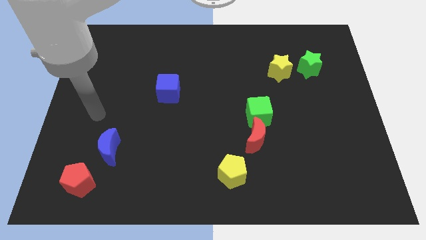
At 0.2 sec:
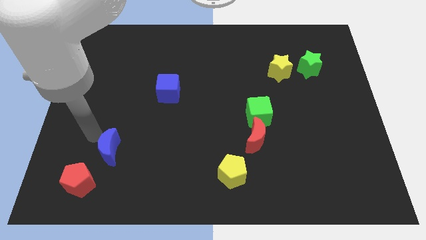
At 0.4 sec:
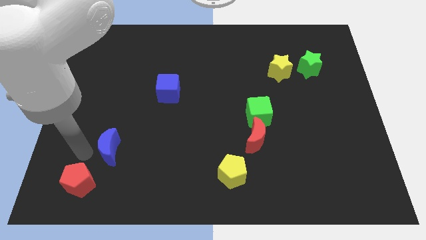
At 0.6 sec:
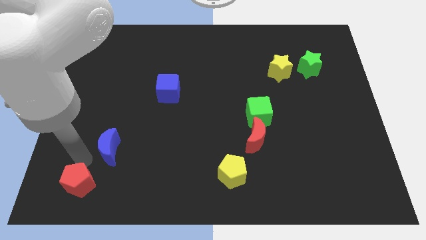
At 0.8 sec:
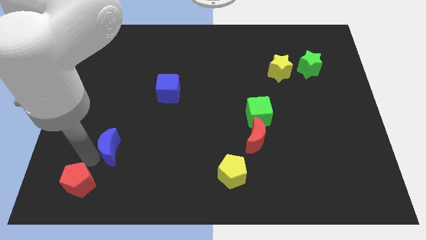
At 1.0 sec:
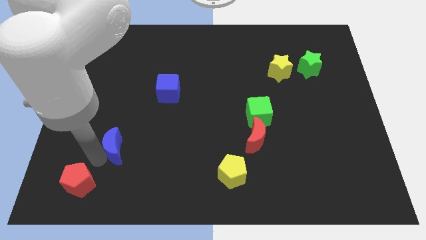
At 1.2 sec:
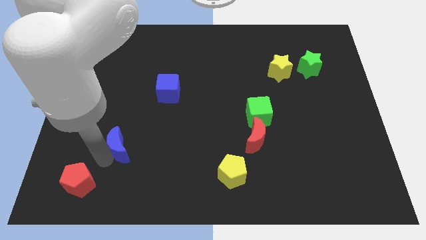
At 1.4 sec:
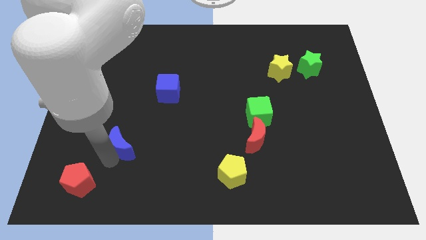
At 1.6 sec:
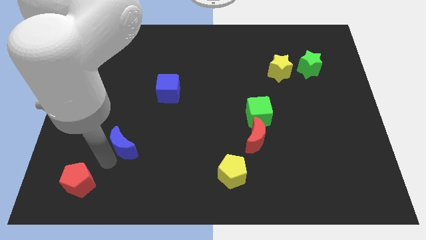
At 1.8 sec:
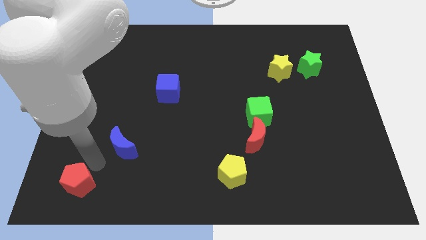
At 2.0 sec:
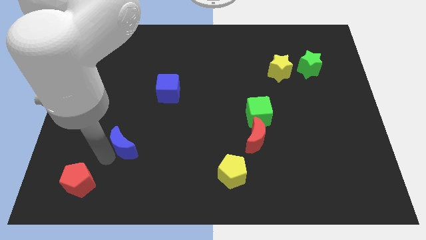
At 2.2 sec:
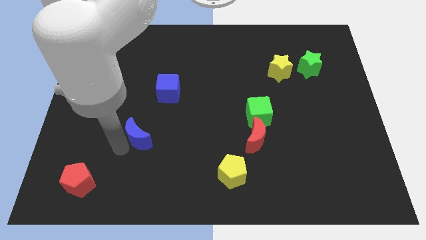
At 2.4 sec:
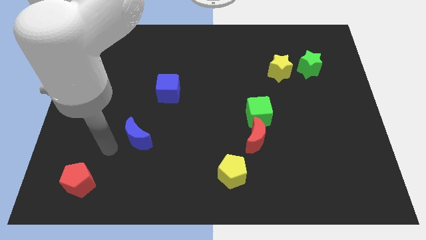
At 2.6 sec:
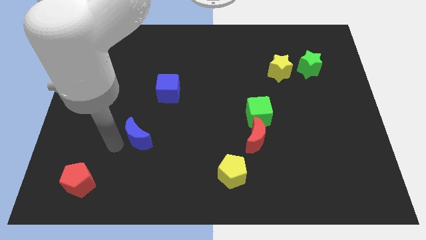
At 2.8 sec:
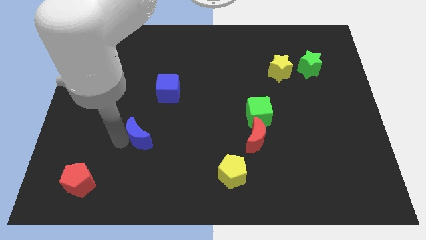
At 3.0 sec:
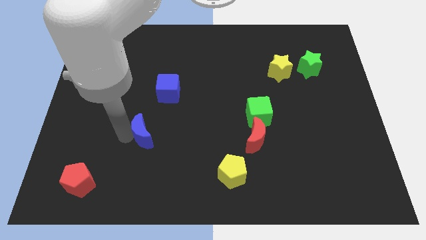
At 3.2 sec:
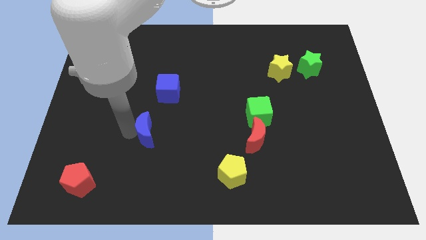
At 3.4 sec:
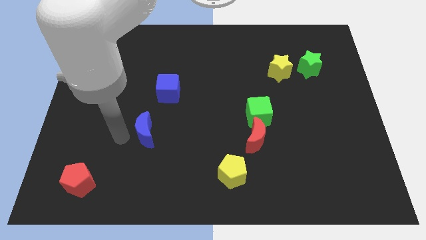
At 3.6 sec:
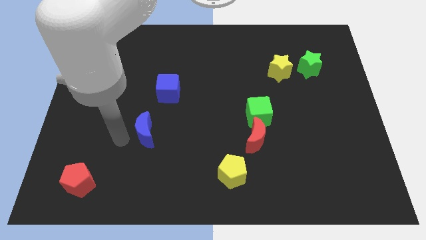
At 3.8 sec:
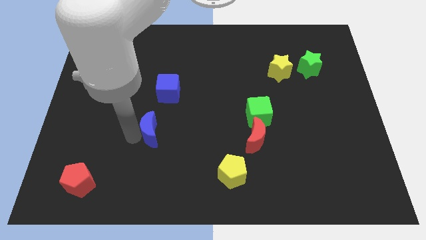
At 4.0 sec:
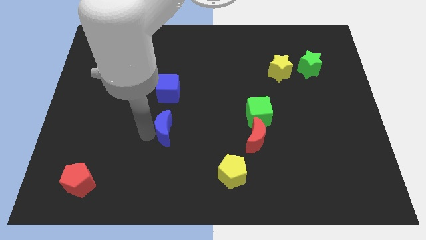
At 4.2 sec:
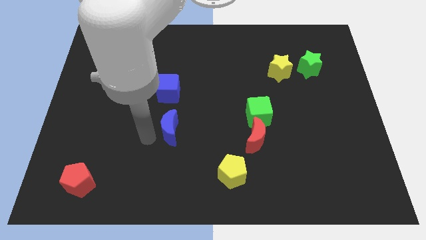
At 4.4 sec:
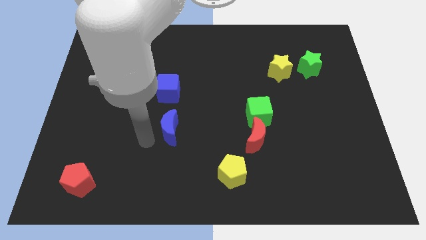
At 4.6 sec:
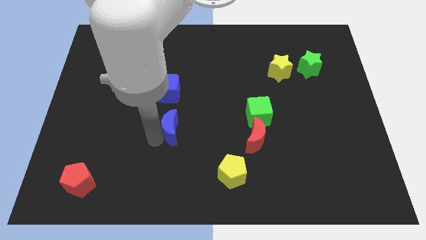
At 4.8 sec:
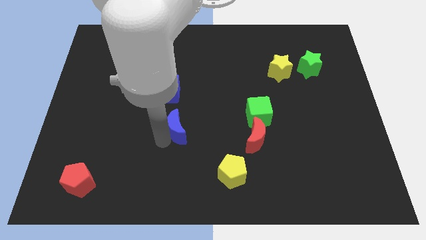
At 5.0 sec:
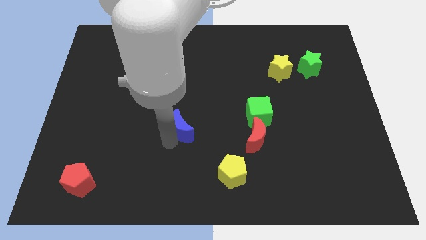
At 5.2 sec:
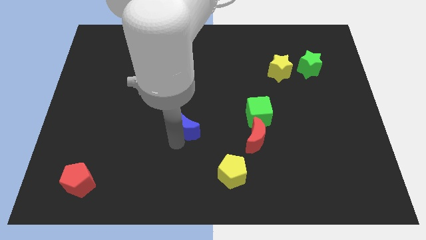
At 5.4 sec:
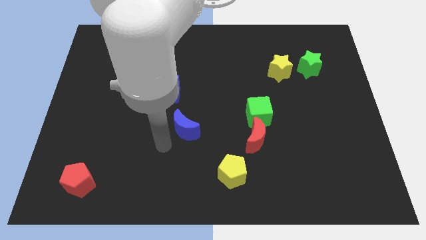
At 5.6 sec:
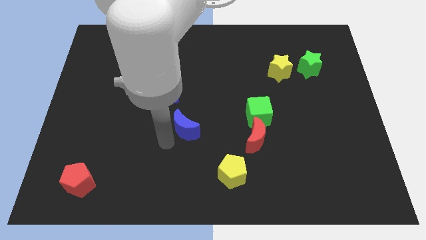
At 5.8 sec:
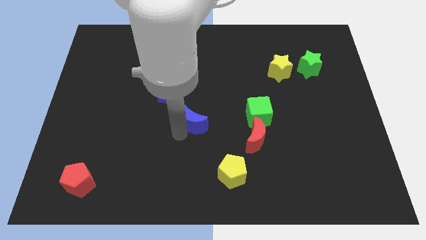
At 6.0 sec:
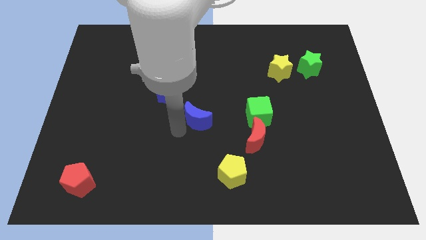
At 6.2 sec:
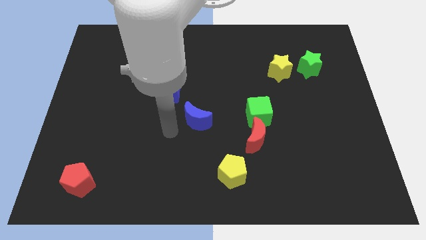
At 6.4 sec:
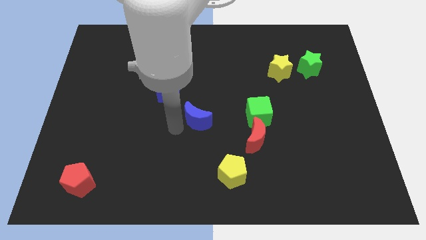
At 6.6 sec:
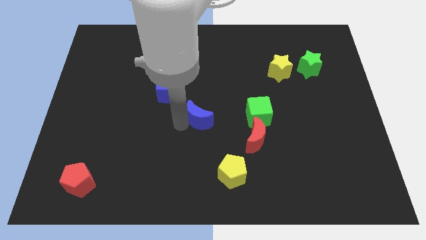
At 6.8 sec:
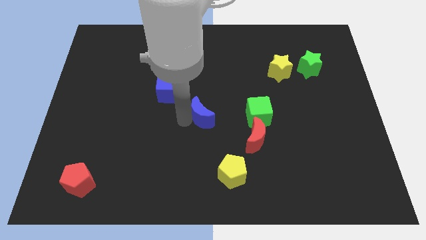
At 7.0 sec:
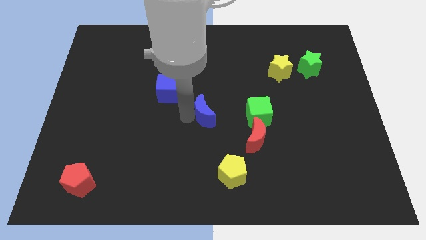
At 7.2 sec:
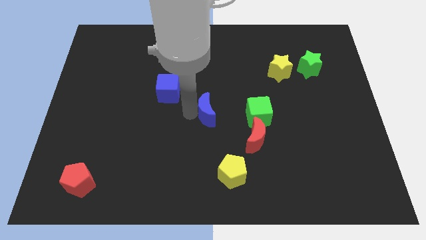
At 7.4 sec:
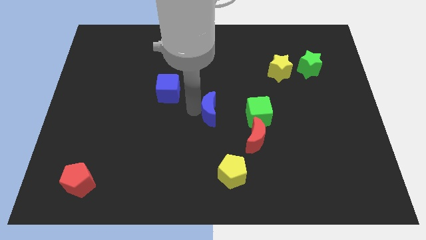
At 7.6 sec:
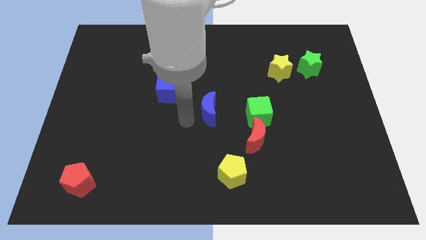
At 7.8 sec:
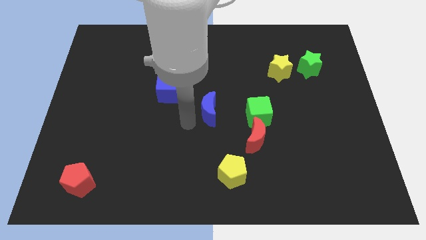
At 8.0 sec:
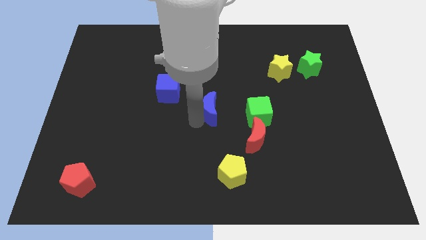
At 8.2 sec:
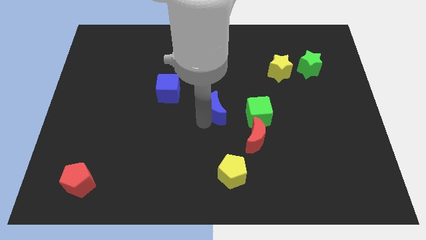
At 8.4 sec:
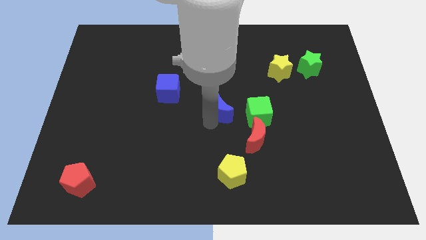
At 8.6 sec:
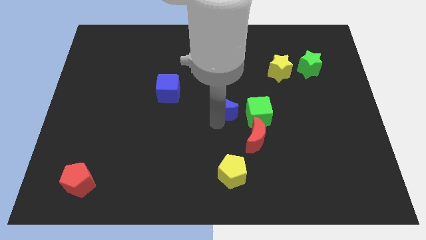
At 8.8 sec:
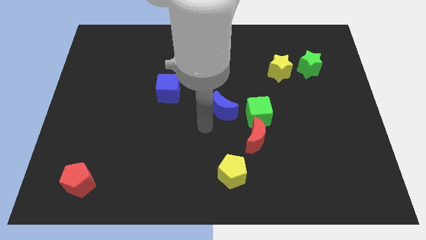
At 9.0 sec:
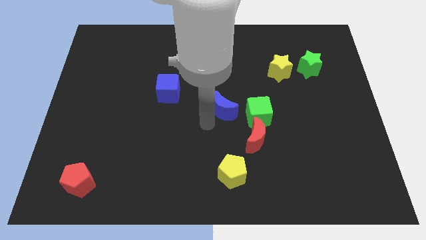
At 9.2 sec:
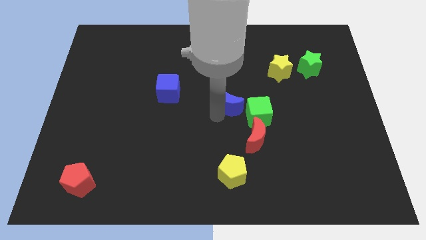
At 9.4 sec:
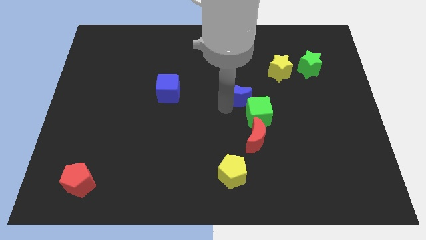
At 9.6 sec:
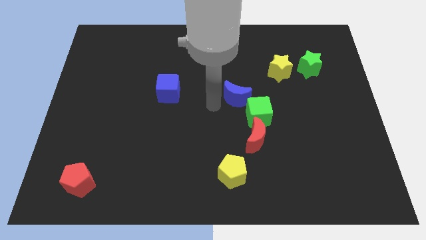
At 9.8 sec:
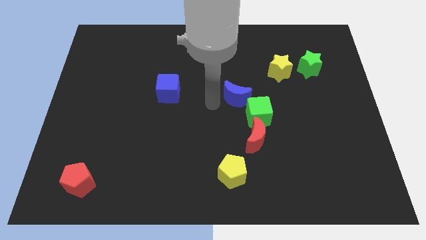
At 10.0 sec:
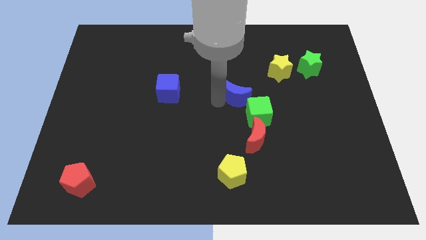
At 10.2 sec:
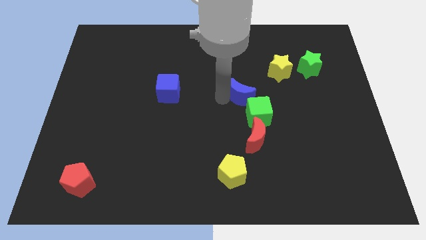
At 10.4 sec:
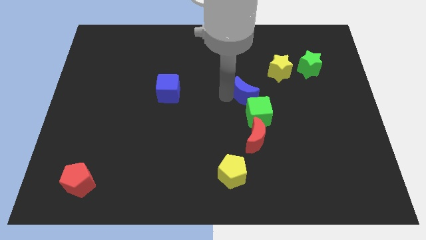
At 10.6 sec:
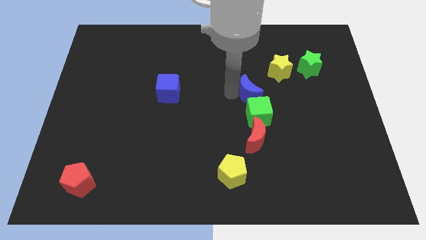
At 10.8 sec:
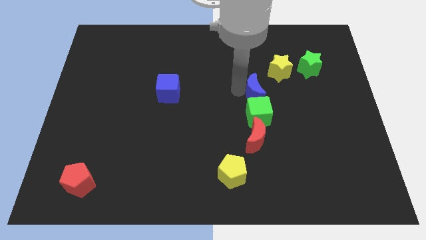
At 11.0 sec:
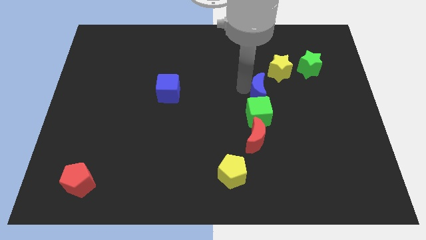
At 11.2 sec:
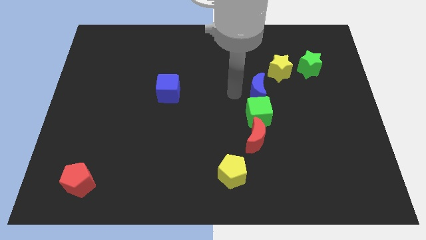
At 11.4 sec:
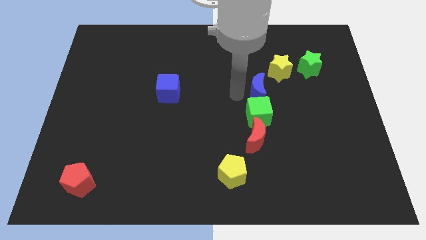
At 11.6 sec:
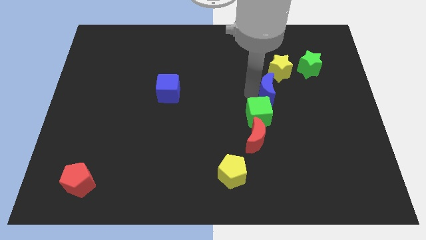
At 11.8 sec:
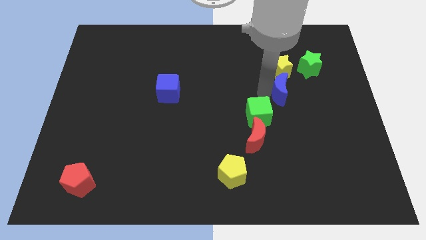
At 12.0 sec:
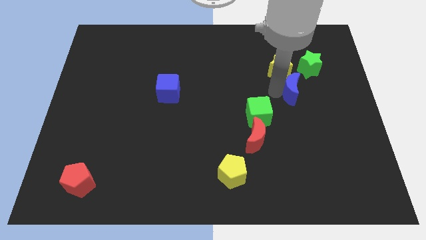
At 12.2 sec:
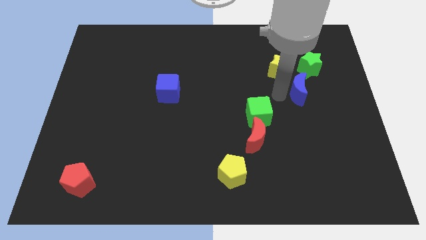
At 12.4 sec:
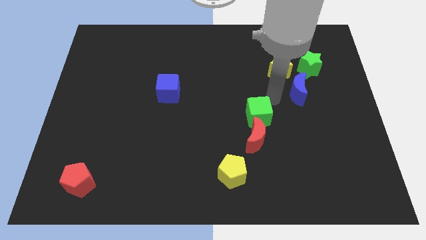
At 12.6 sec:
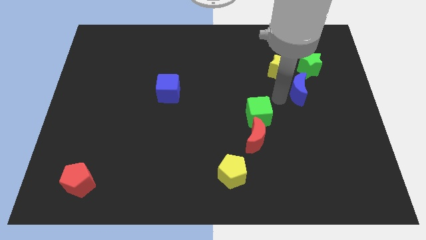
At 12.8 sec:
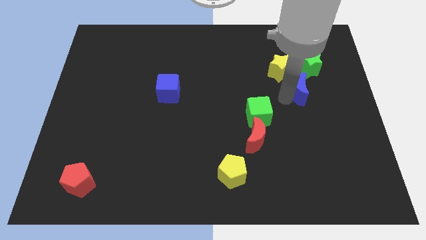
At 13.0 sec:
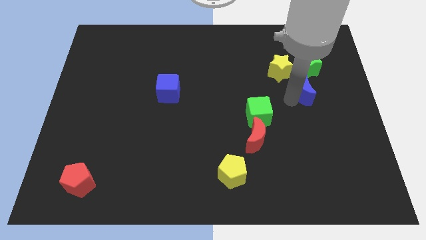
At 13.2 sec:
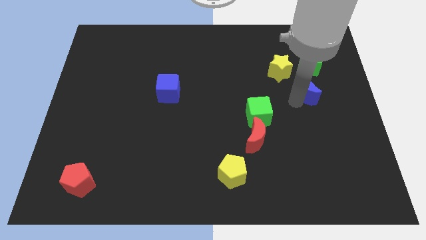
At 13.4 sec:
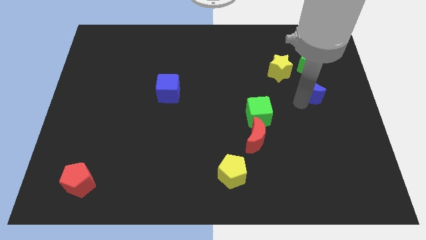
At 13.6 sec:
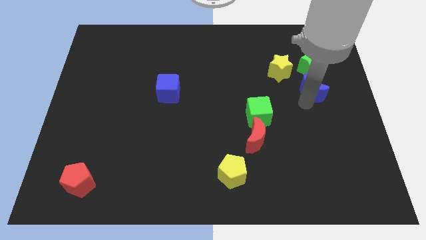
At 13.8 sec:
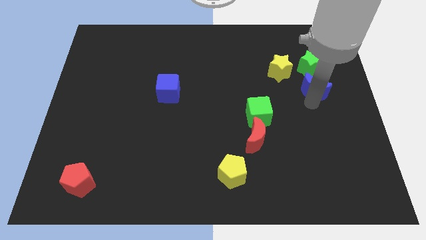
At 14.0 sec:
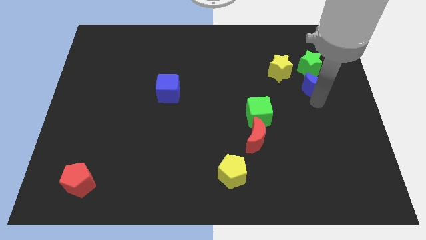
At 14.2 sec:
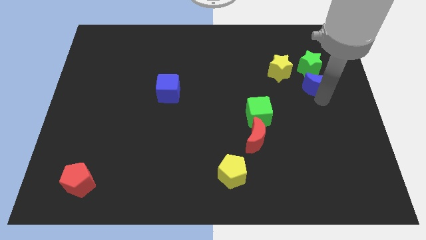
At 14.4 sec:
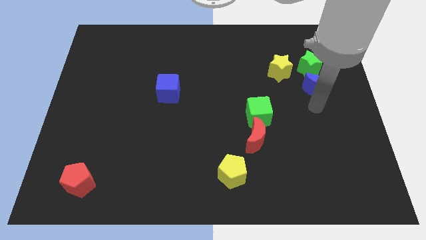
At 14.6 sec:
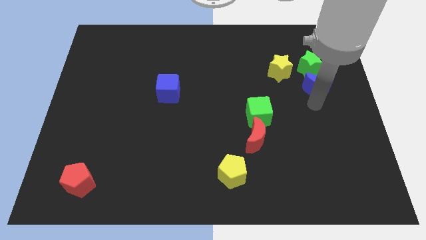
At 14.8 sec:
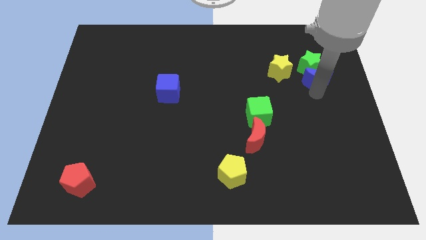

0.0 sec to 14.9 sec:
slide the blue moon to the right side of the yellow star
